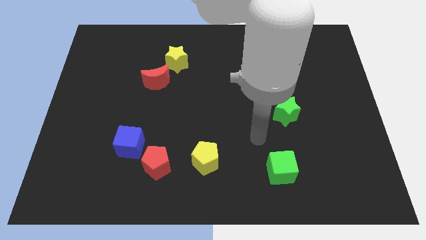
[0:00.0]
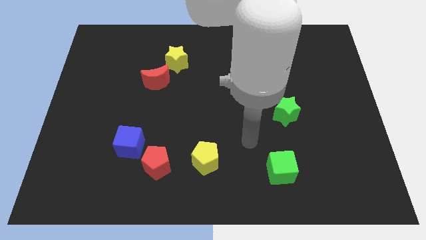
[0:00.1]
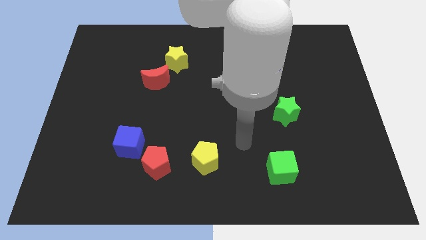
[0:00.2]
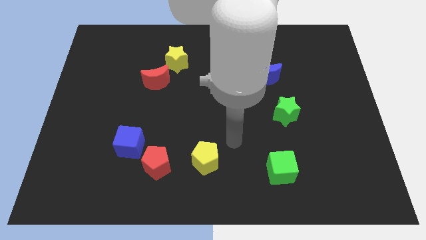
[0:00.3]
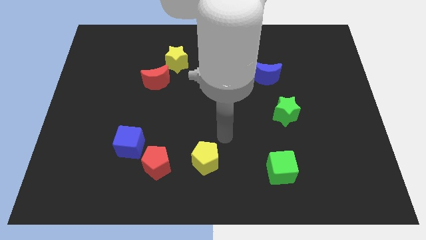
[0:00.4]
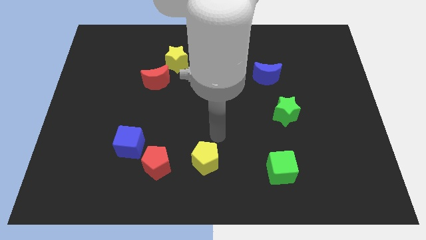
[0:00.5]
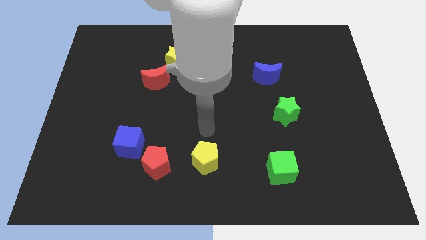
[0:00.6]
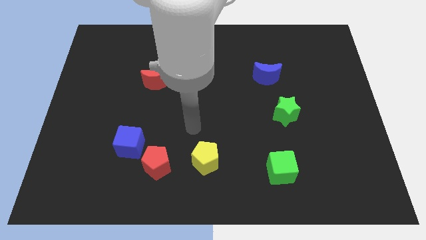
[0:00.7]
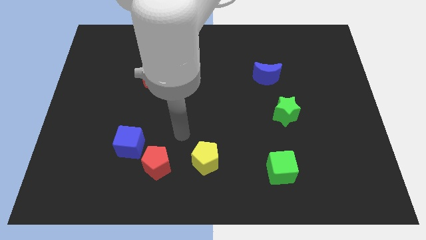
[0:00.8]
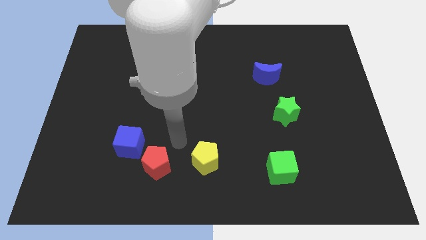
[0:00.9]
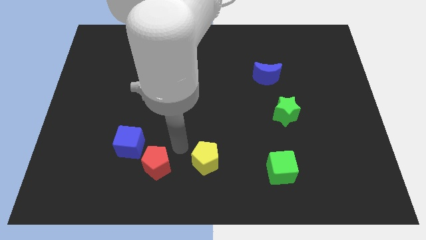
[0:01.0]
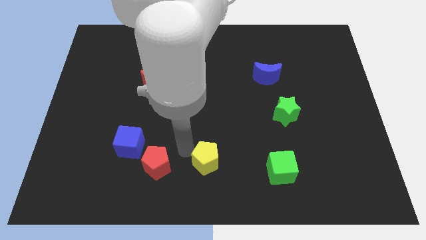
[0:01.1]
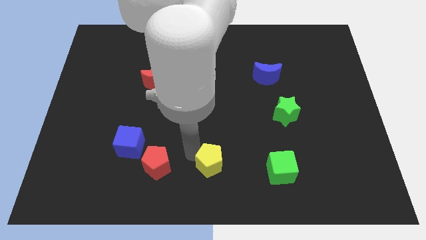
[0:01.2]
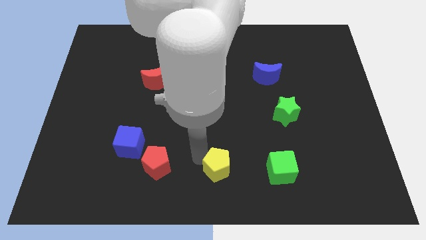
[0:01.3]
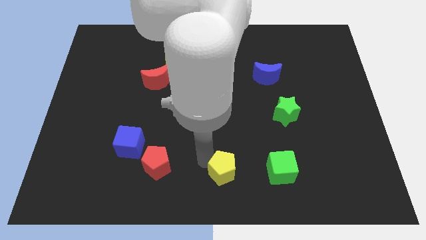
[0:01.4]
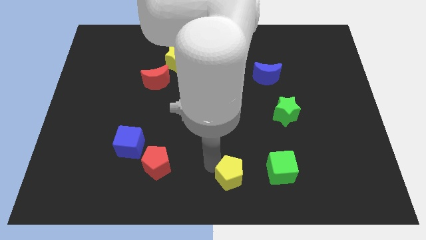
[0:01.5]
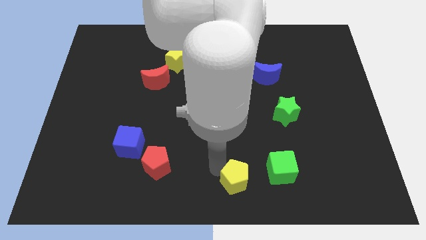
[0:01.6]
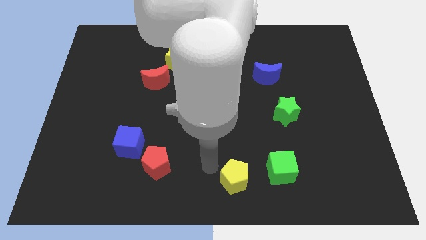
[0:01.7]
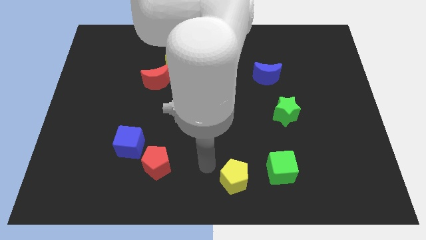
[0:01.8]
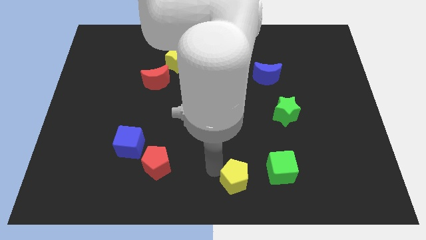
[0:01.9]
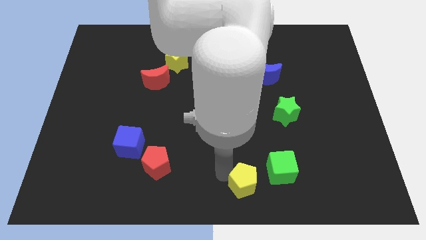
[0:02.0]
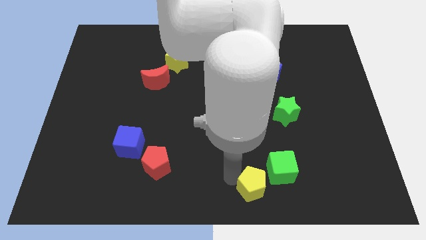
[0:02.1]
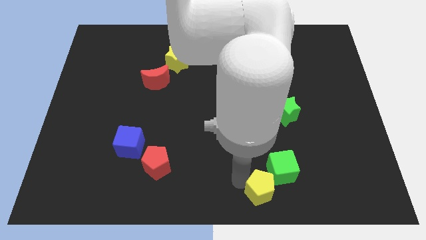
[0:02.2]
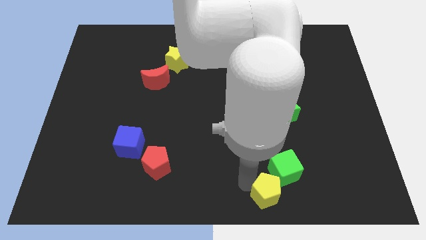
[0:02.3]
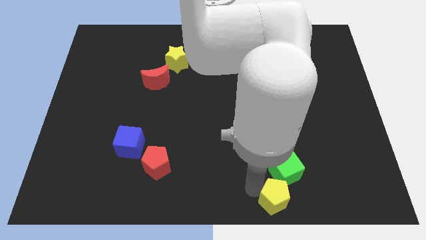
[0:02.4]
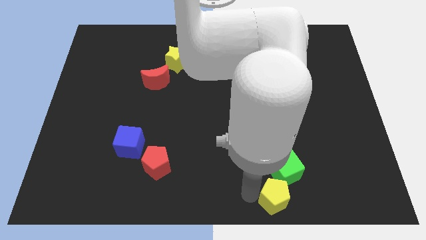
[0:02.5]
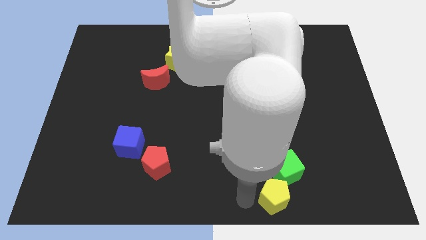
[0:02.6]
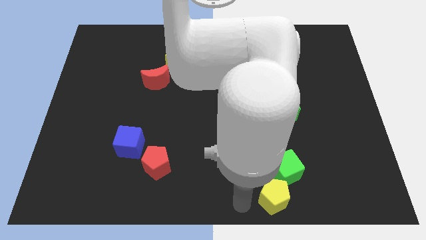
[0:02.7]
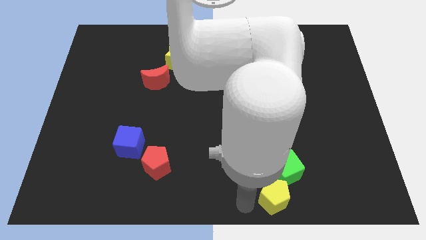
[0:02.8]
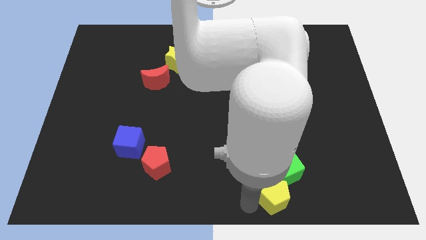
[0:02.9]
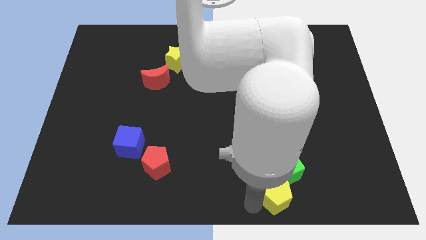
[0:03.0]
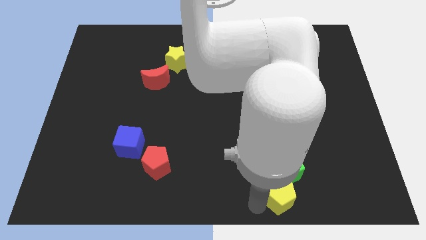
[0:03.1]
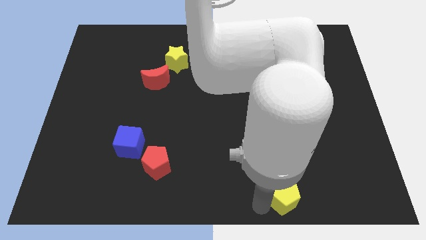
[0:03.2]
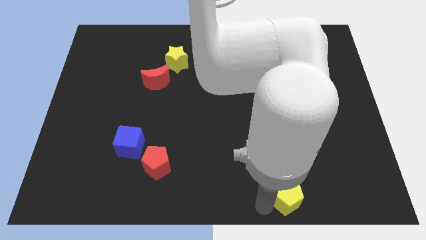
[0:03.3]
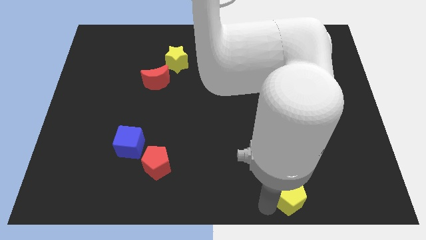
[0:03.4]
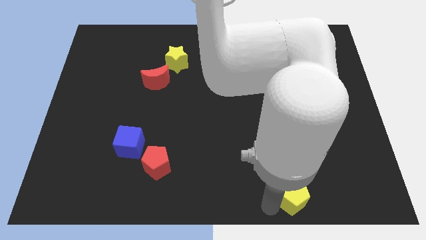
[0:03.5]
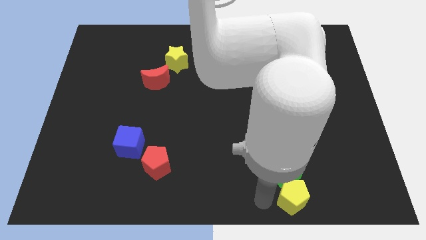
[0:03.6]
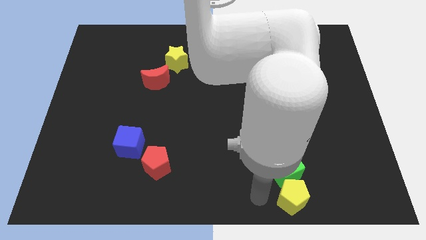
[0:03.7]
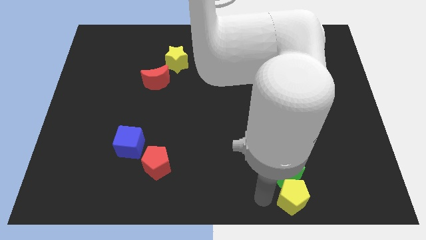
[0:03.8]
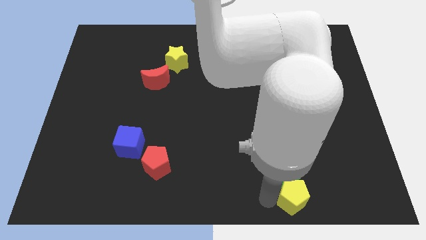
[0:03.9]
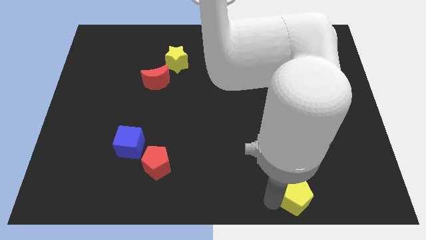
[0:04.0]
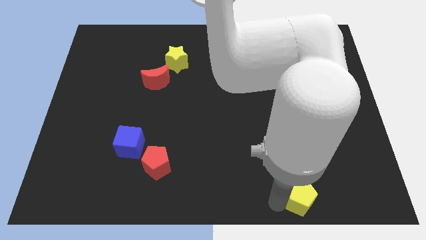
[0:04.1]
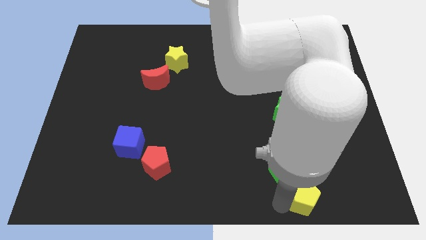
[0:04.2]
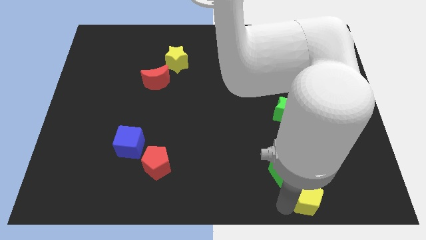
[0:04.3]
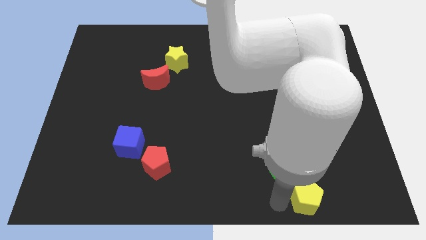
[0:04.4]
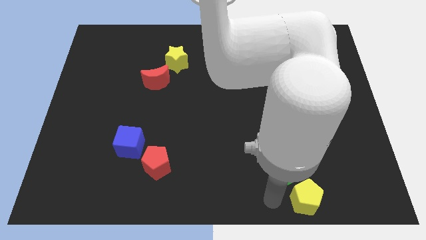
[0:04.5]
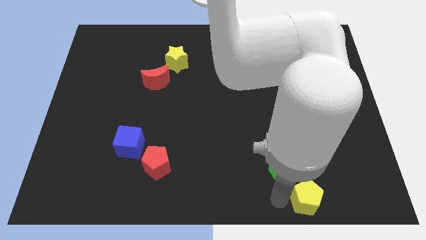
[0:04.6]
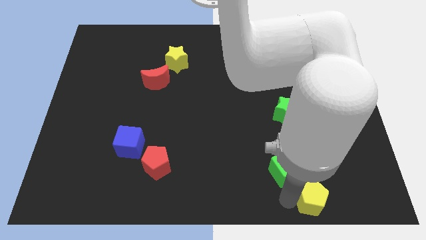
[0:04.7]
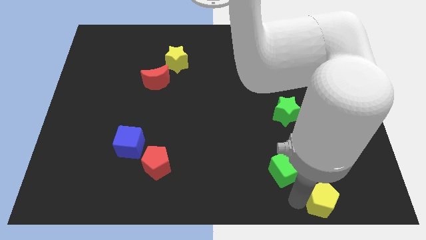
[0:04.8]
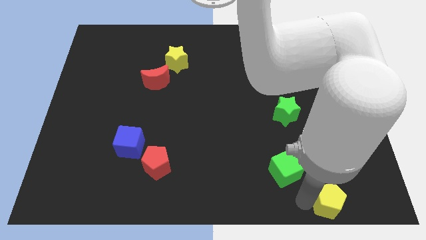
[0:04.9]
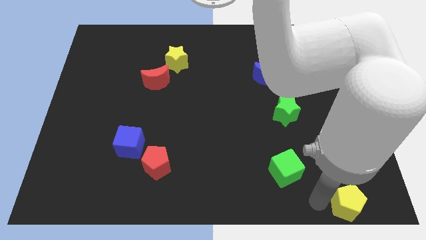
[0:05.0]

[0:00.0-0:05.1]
put the yellow pentagon to the lower right corner

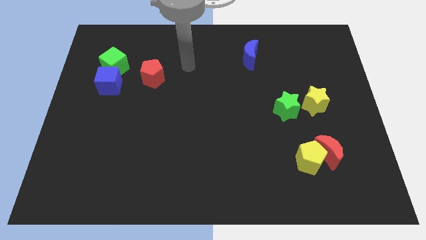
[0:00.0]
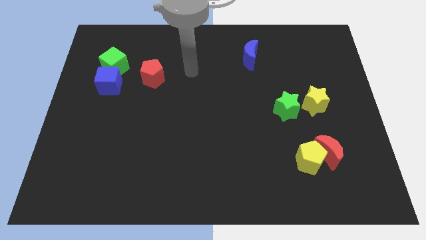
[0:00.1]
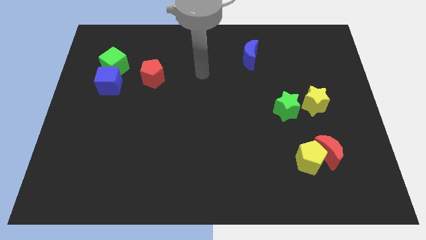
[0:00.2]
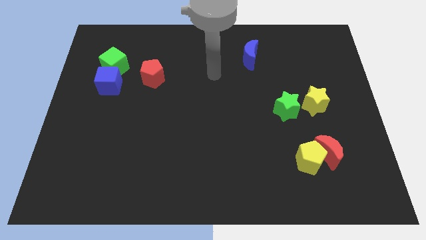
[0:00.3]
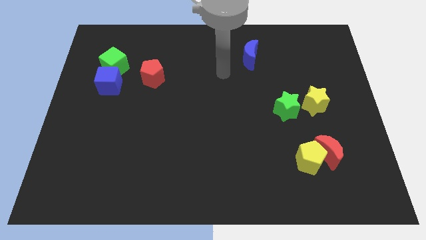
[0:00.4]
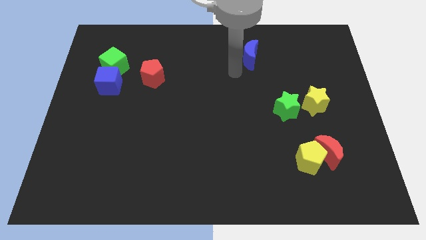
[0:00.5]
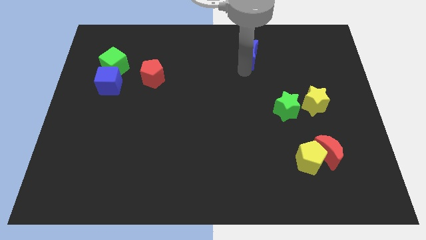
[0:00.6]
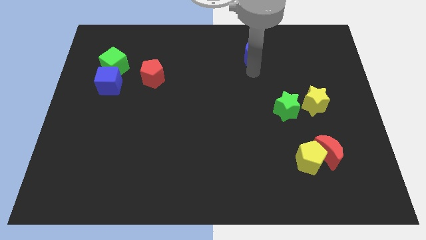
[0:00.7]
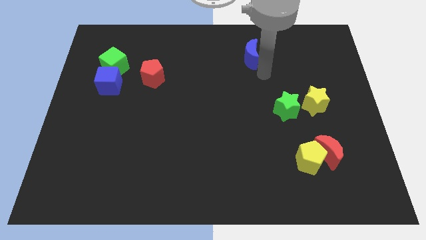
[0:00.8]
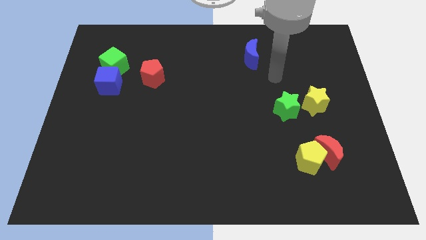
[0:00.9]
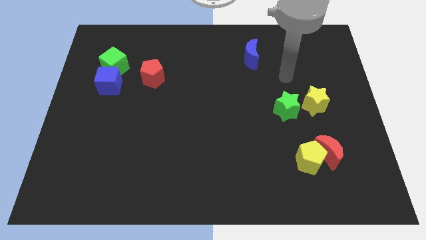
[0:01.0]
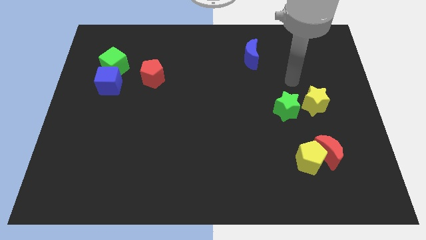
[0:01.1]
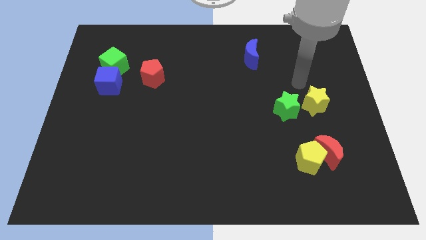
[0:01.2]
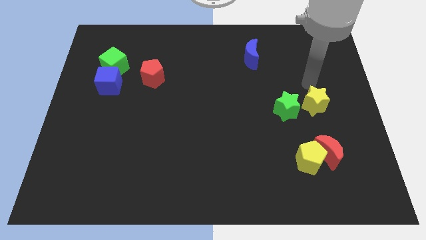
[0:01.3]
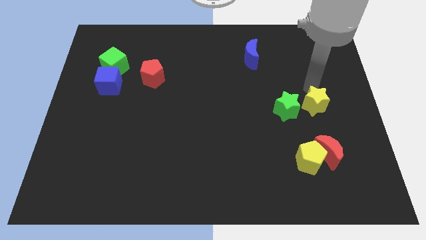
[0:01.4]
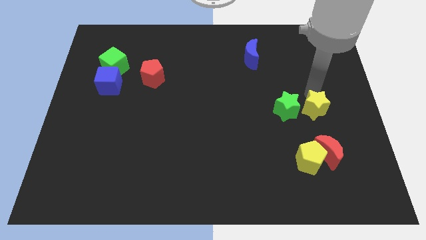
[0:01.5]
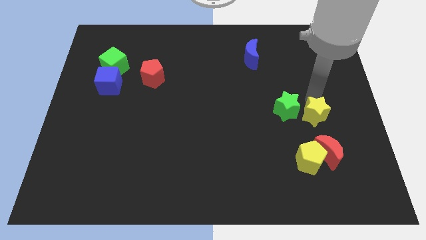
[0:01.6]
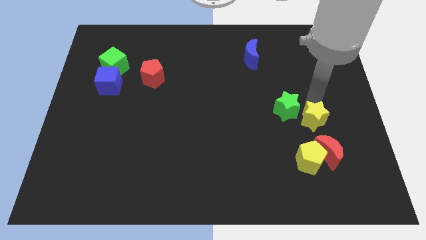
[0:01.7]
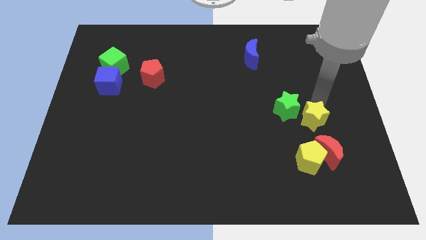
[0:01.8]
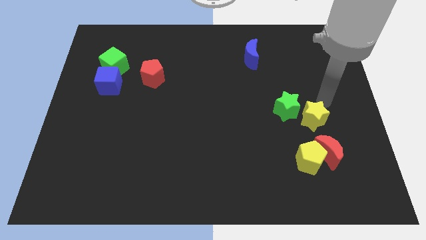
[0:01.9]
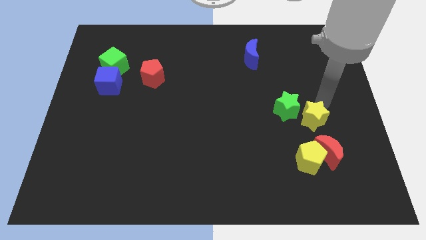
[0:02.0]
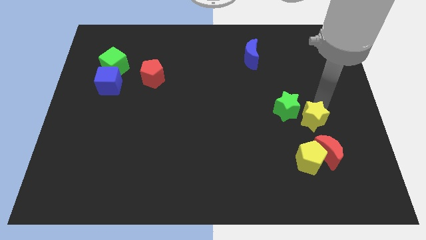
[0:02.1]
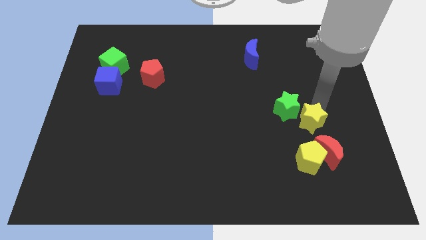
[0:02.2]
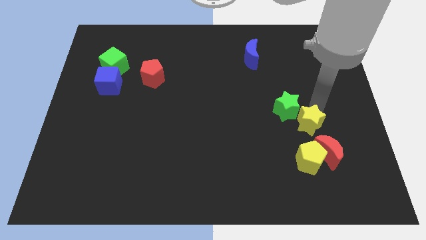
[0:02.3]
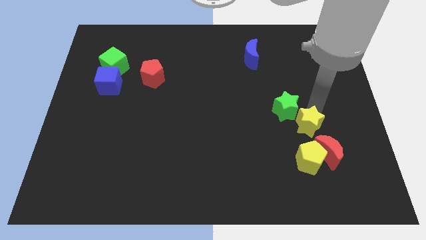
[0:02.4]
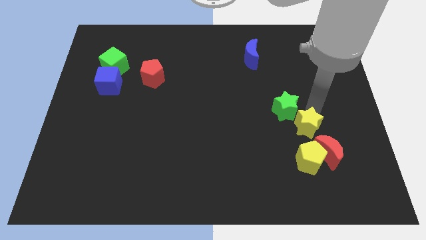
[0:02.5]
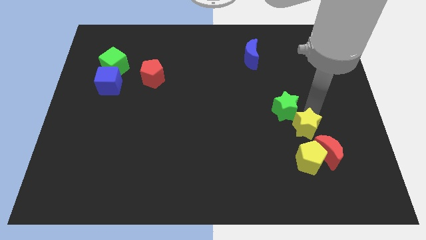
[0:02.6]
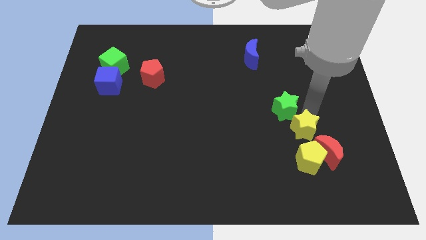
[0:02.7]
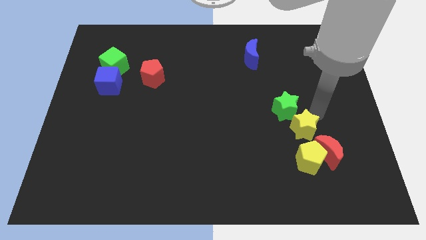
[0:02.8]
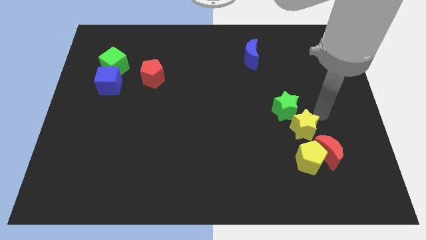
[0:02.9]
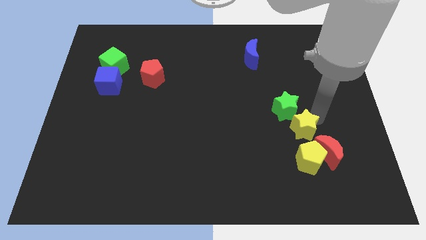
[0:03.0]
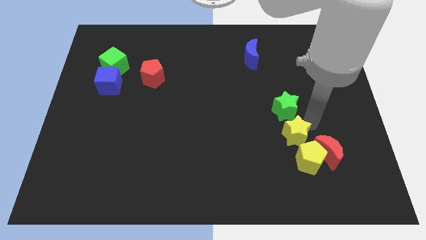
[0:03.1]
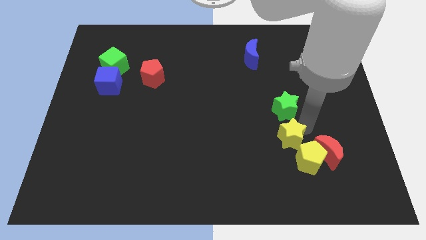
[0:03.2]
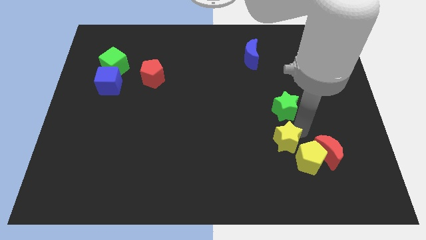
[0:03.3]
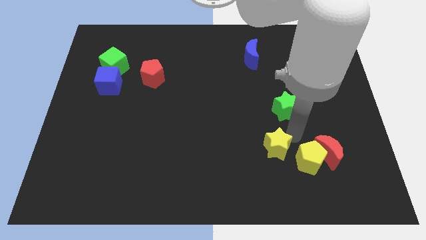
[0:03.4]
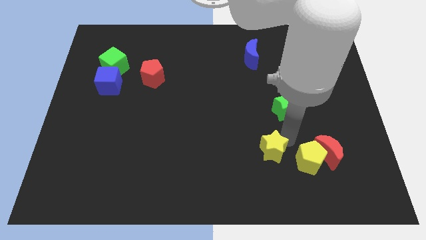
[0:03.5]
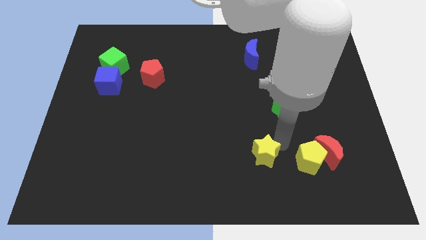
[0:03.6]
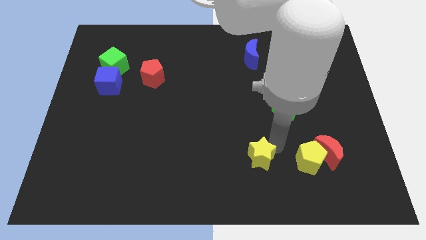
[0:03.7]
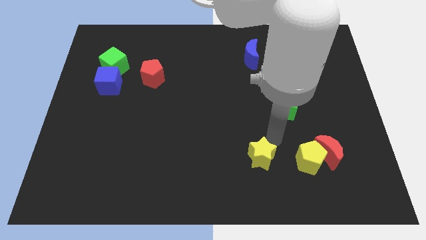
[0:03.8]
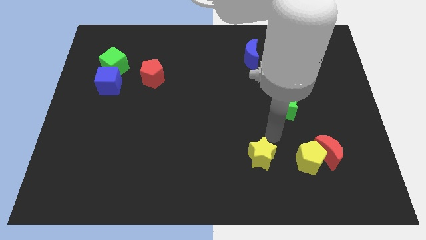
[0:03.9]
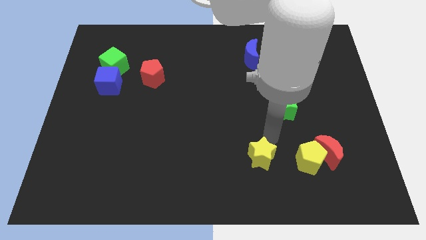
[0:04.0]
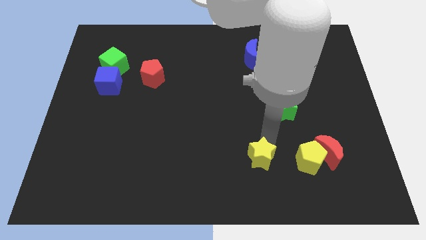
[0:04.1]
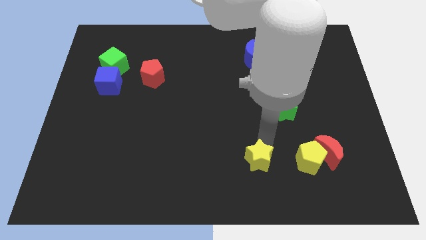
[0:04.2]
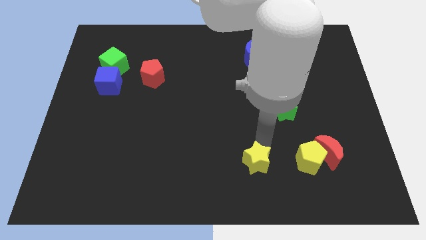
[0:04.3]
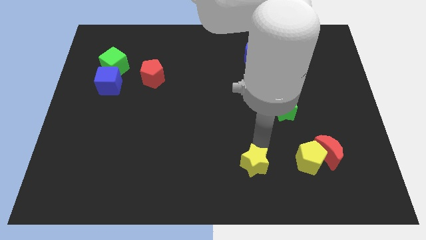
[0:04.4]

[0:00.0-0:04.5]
move the yellow star to the bottom side
